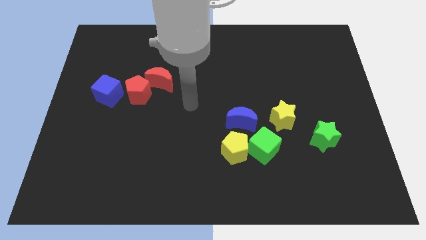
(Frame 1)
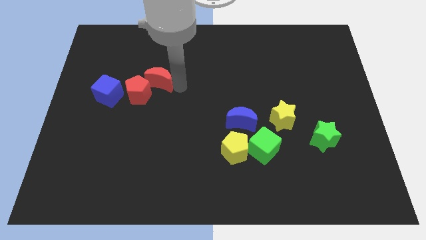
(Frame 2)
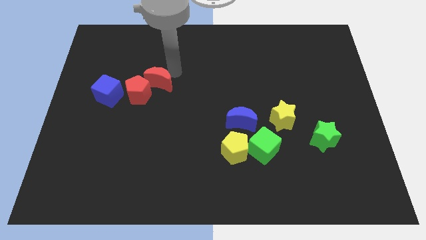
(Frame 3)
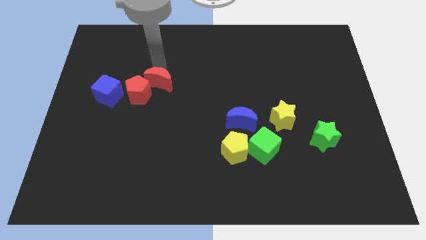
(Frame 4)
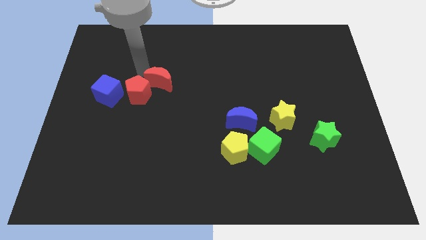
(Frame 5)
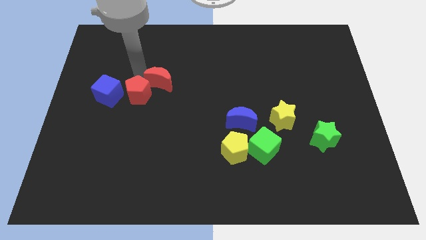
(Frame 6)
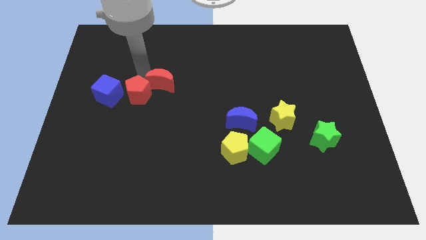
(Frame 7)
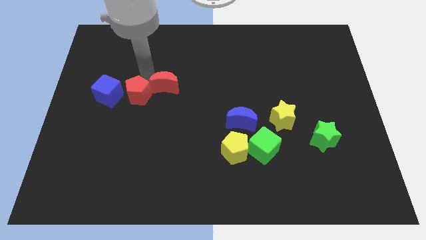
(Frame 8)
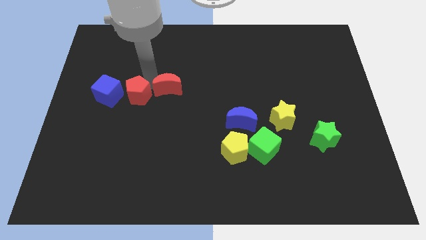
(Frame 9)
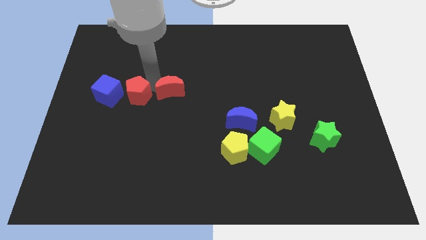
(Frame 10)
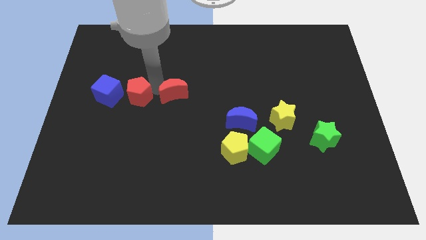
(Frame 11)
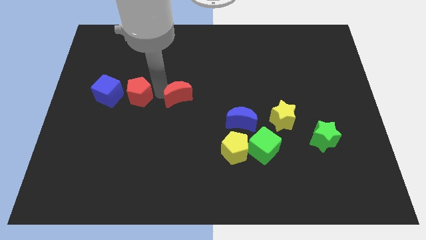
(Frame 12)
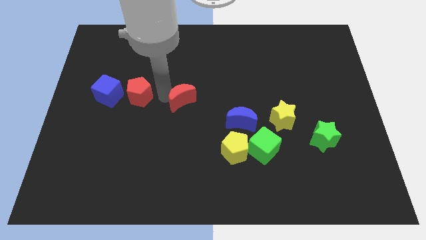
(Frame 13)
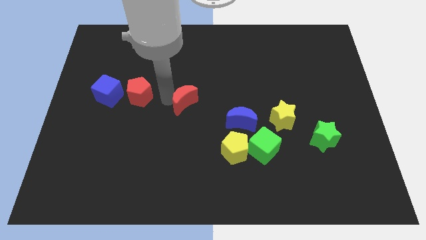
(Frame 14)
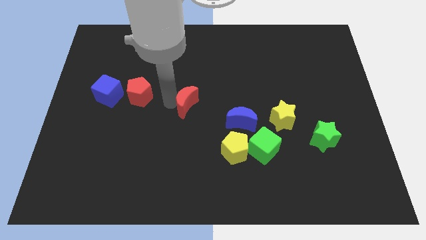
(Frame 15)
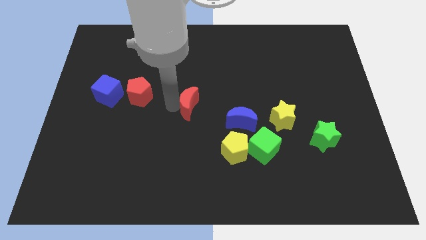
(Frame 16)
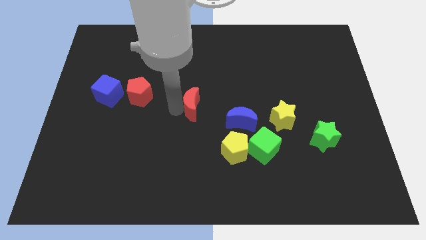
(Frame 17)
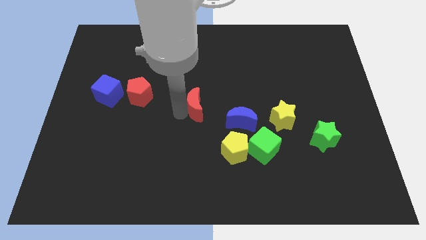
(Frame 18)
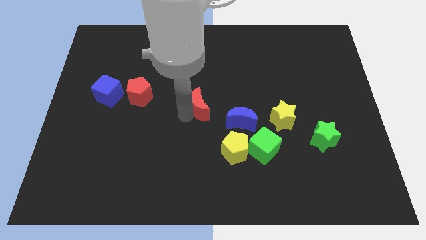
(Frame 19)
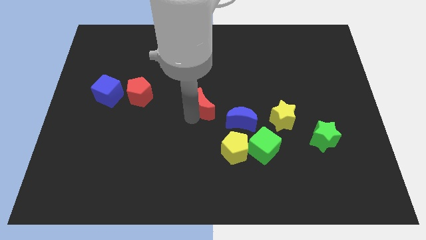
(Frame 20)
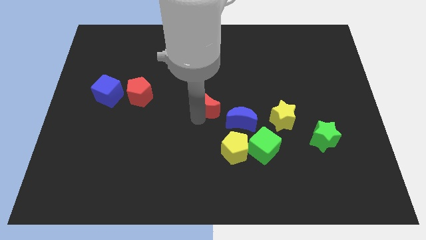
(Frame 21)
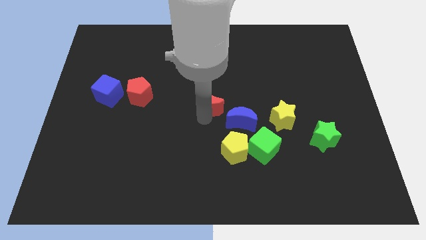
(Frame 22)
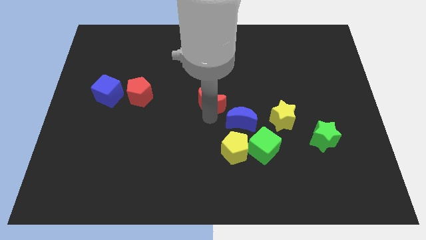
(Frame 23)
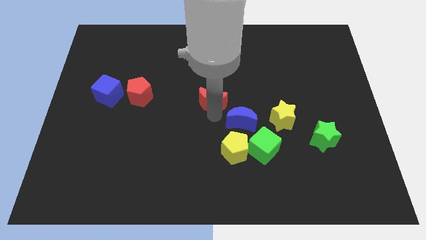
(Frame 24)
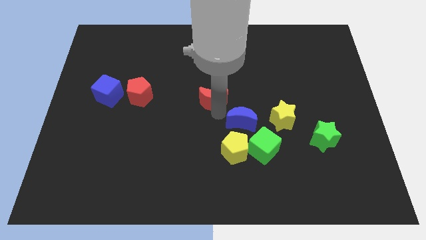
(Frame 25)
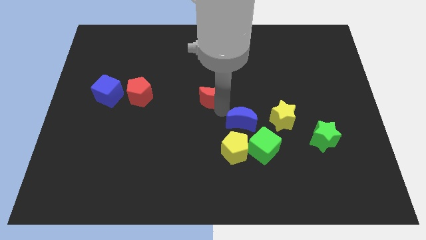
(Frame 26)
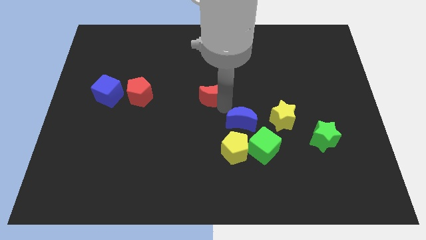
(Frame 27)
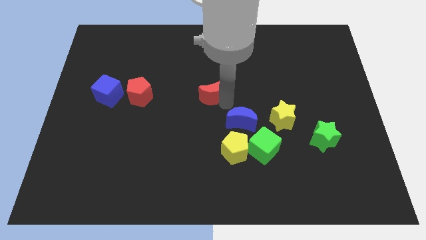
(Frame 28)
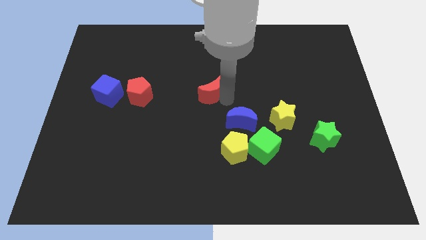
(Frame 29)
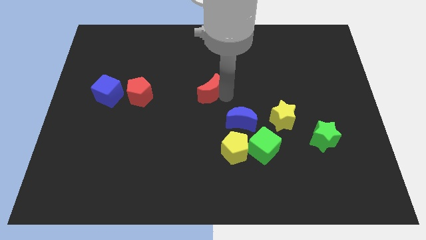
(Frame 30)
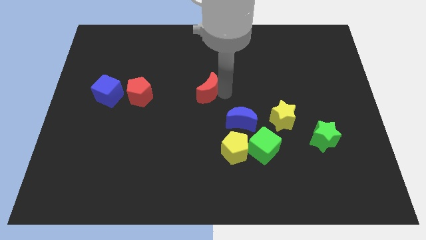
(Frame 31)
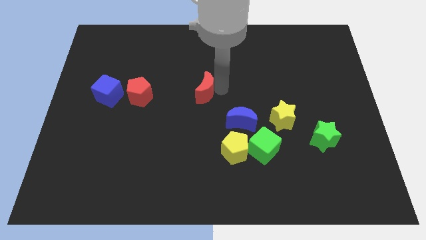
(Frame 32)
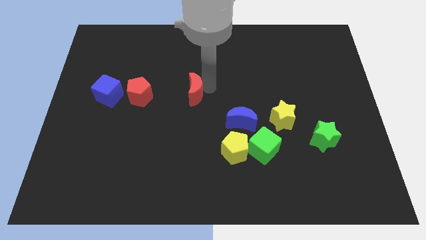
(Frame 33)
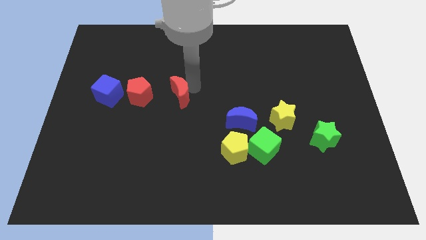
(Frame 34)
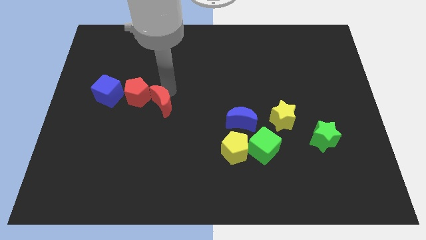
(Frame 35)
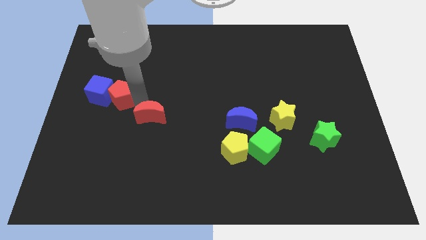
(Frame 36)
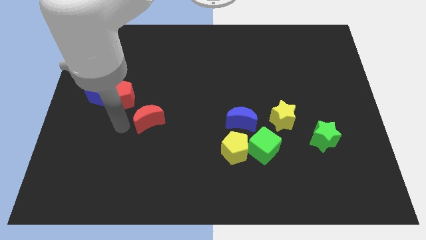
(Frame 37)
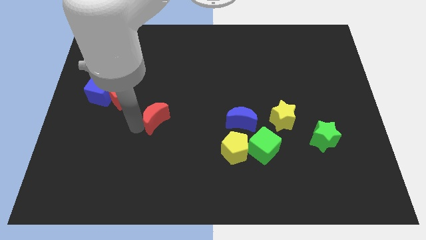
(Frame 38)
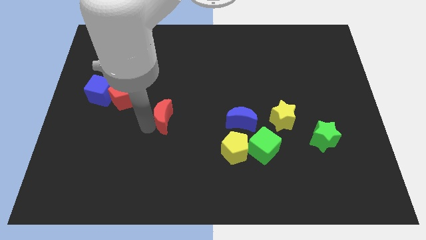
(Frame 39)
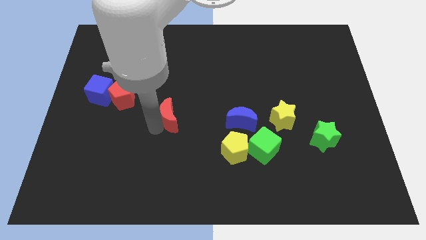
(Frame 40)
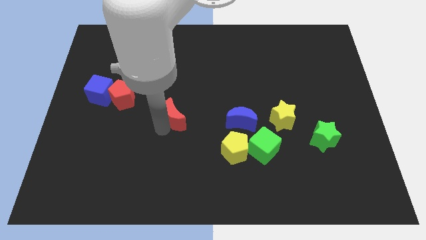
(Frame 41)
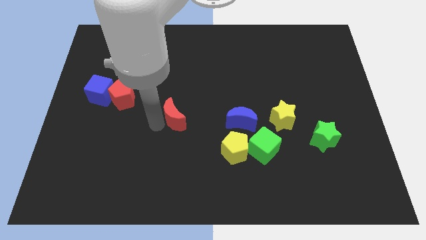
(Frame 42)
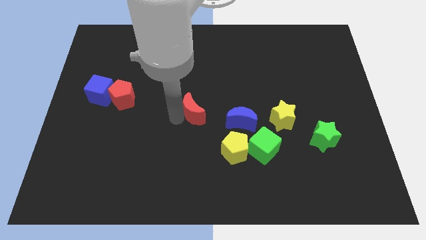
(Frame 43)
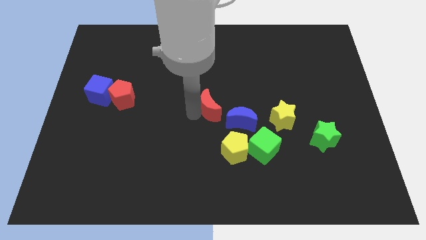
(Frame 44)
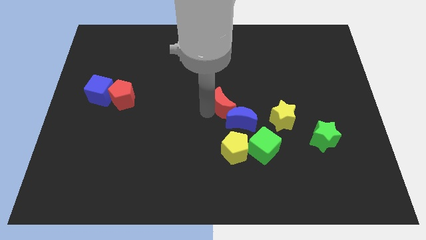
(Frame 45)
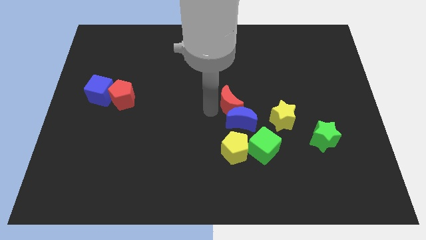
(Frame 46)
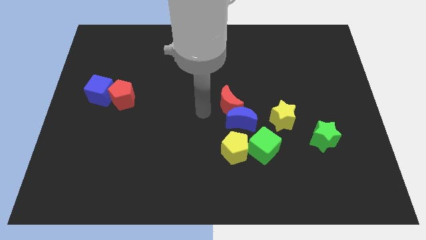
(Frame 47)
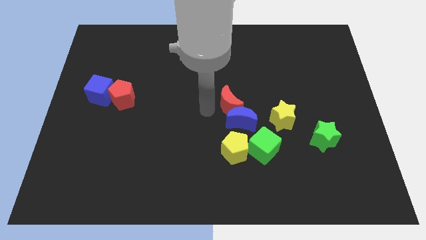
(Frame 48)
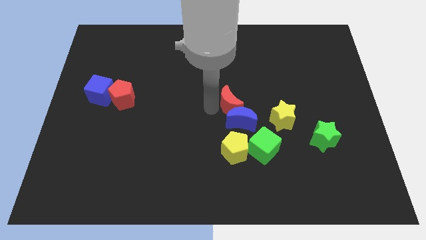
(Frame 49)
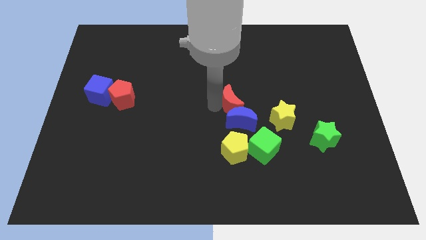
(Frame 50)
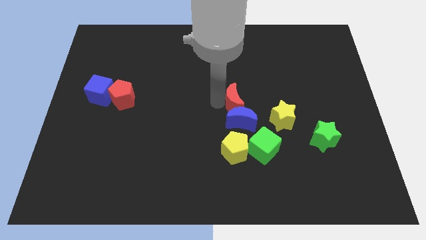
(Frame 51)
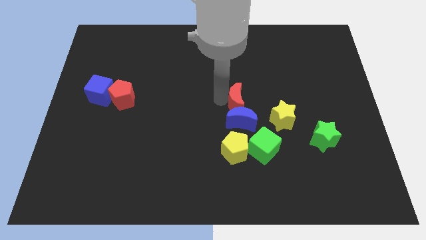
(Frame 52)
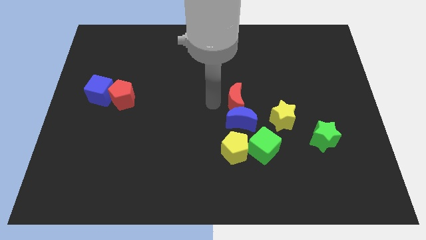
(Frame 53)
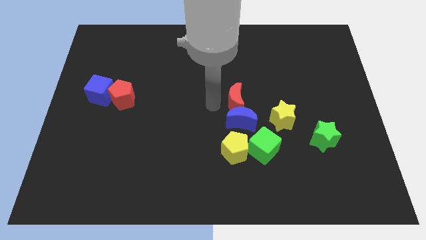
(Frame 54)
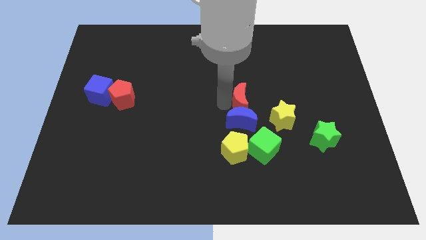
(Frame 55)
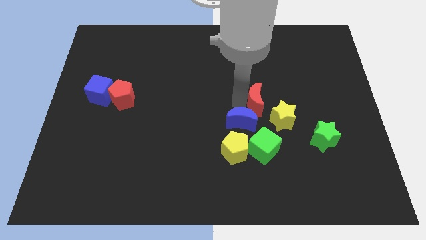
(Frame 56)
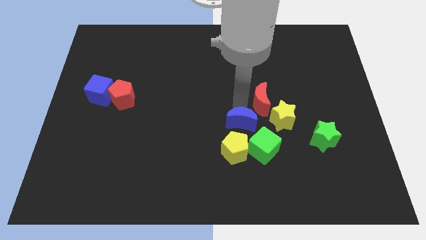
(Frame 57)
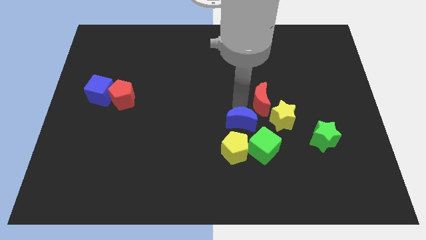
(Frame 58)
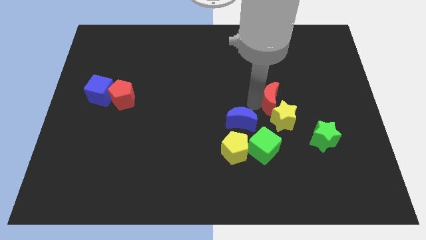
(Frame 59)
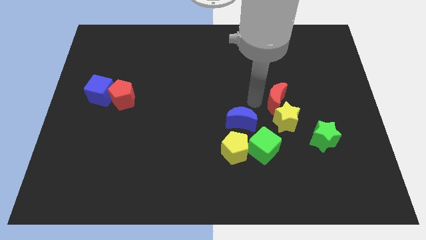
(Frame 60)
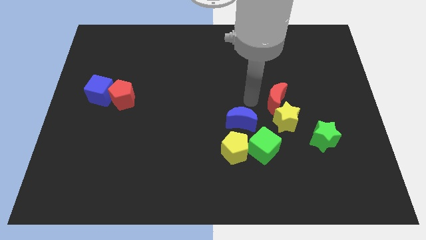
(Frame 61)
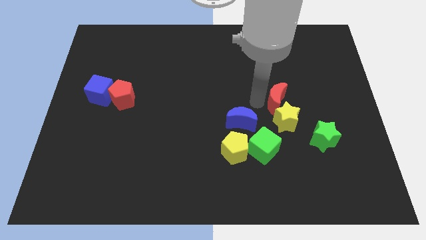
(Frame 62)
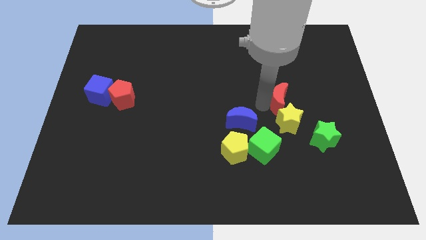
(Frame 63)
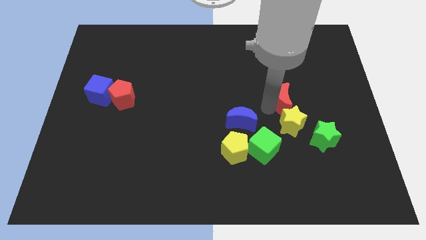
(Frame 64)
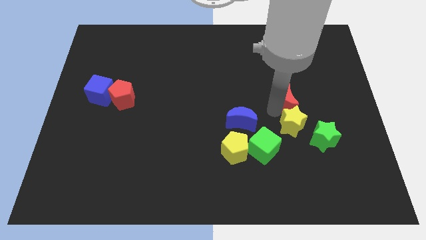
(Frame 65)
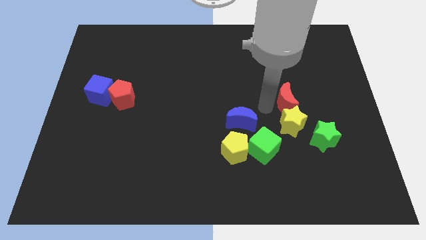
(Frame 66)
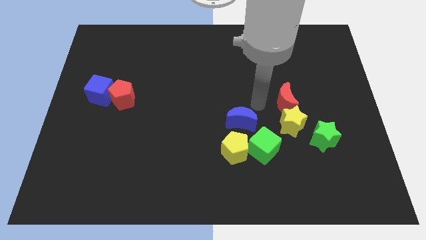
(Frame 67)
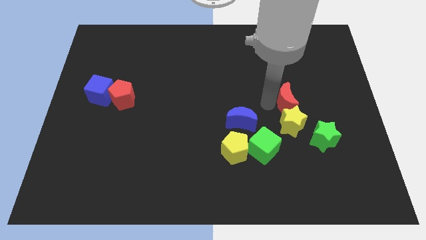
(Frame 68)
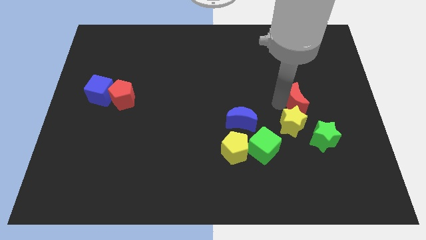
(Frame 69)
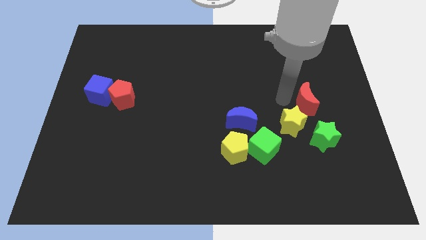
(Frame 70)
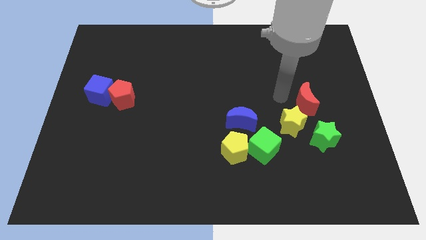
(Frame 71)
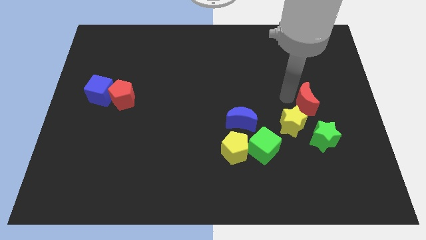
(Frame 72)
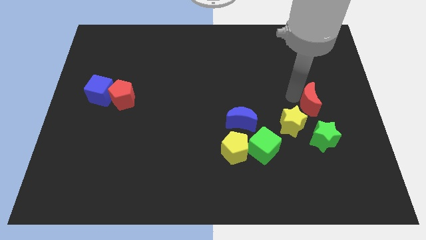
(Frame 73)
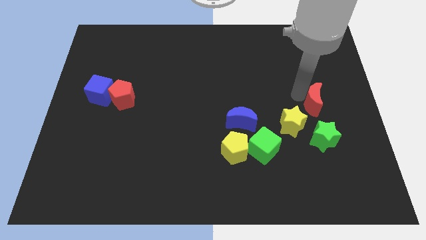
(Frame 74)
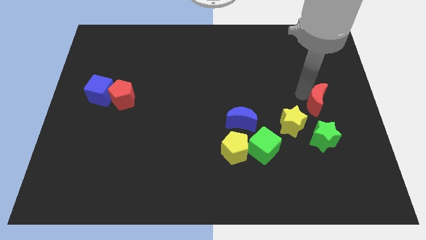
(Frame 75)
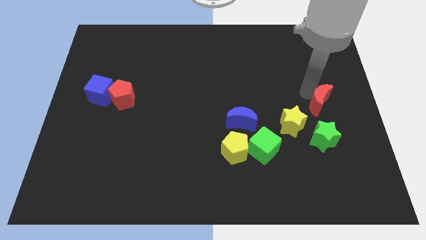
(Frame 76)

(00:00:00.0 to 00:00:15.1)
slide the red moon to the right side of the board
